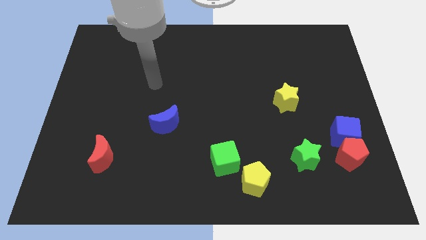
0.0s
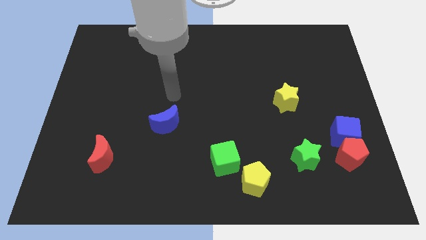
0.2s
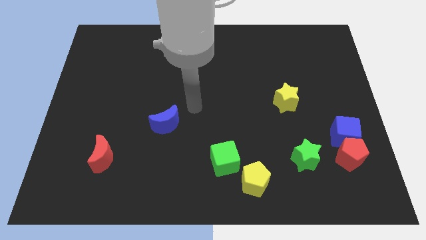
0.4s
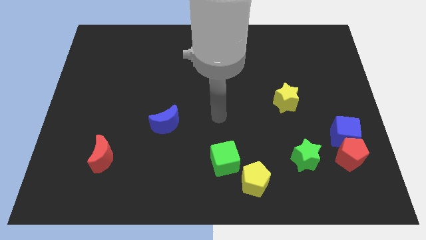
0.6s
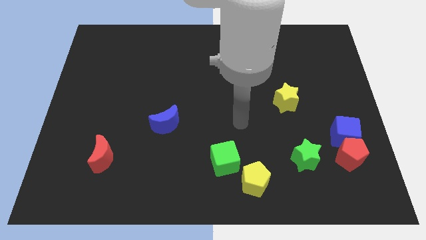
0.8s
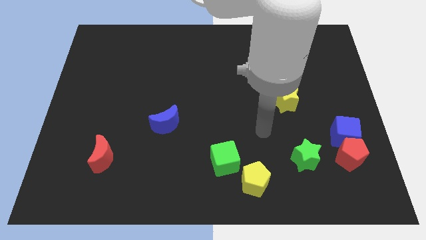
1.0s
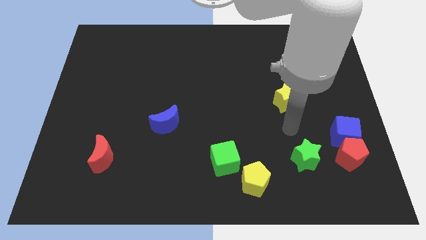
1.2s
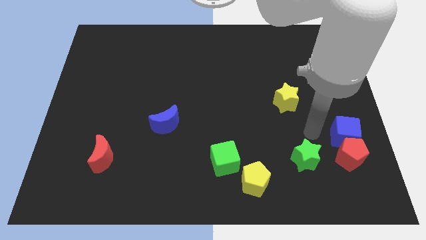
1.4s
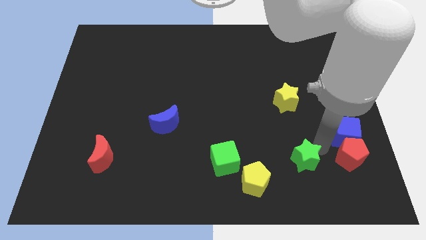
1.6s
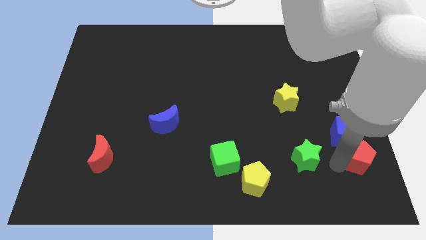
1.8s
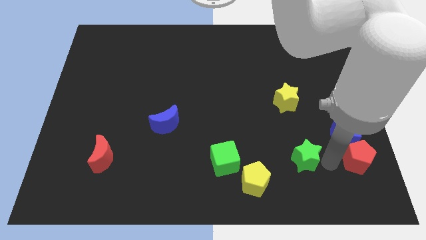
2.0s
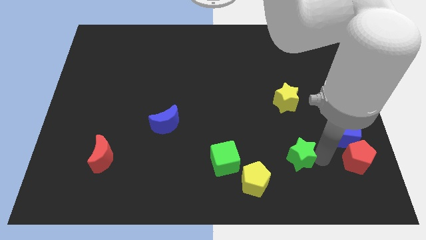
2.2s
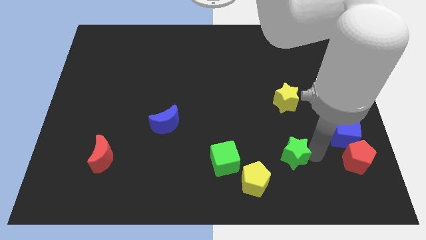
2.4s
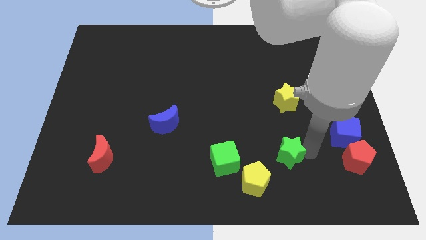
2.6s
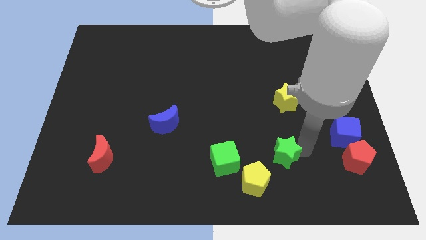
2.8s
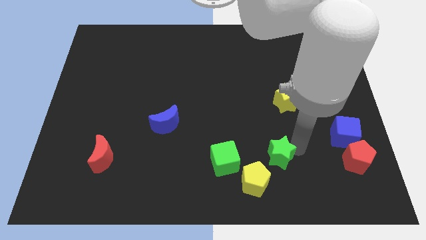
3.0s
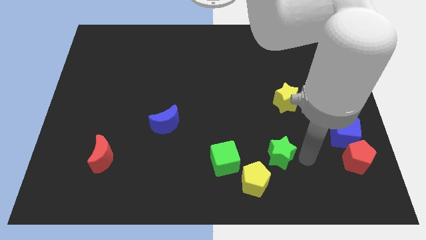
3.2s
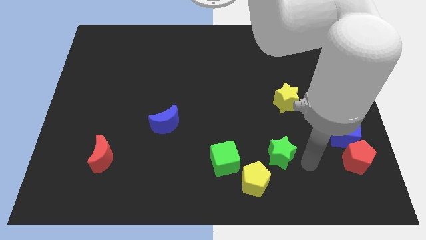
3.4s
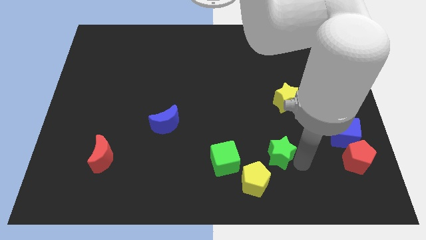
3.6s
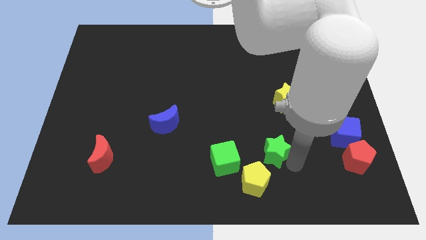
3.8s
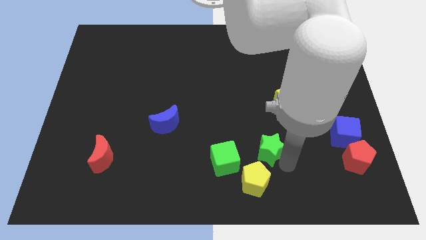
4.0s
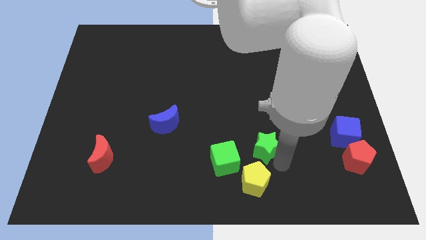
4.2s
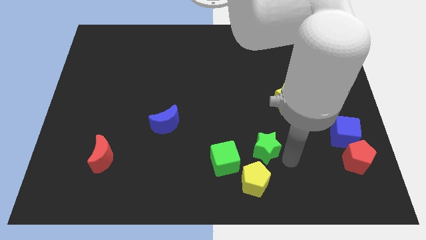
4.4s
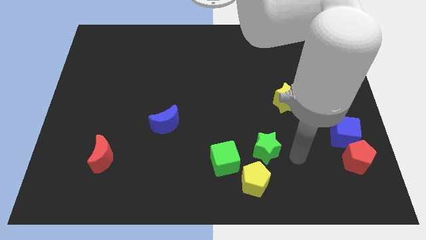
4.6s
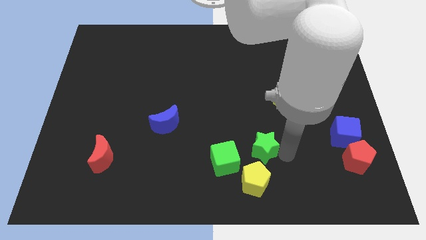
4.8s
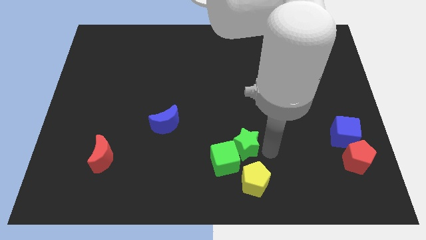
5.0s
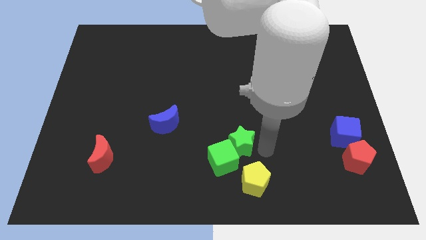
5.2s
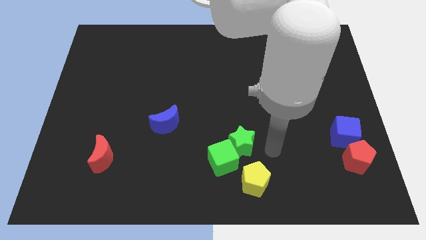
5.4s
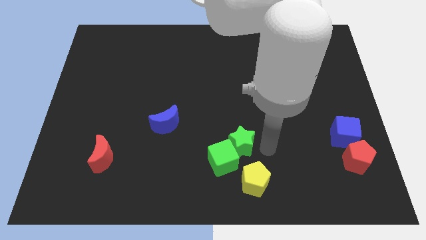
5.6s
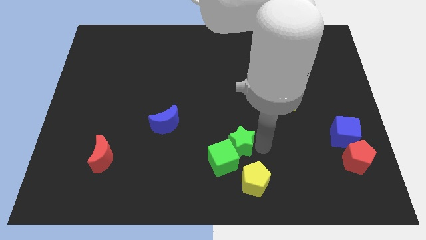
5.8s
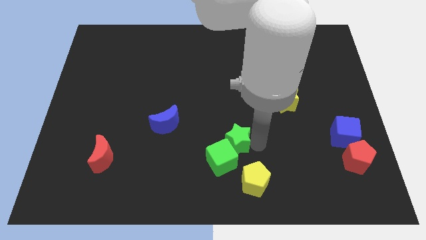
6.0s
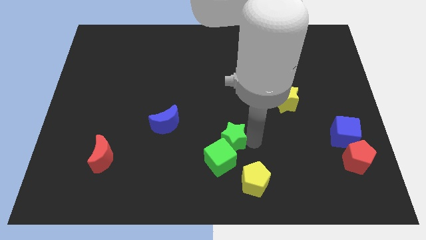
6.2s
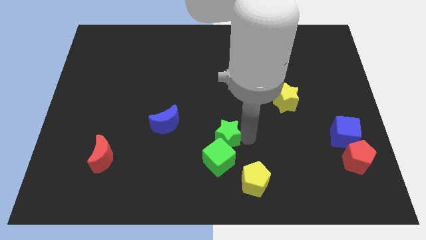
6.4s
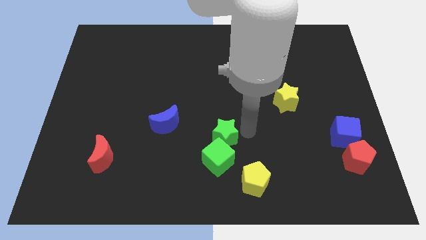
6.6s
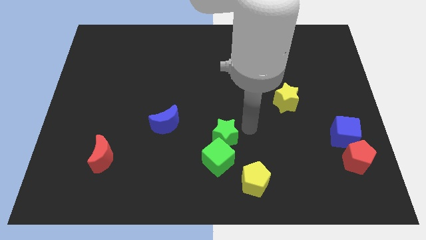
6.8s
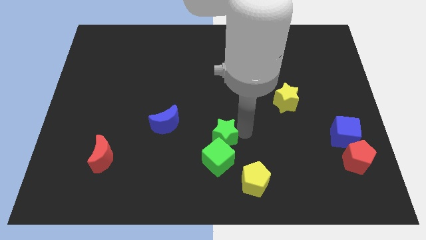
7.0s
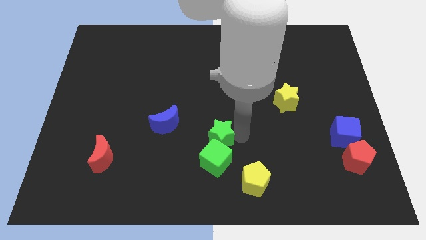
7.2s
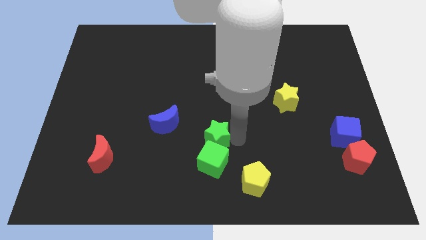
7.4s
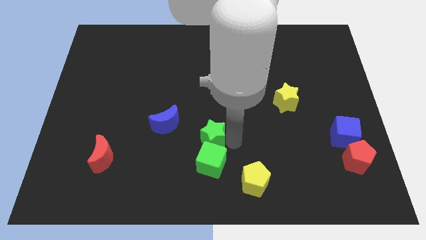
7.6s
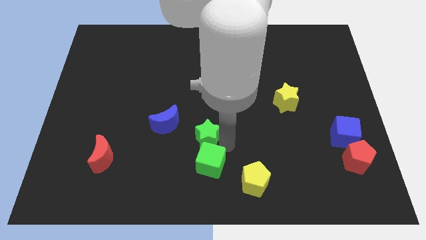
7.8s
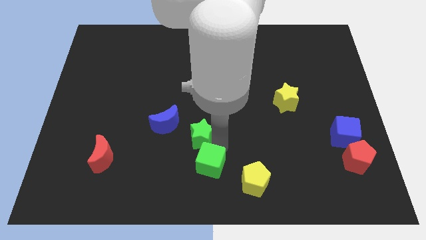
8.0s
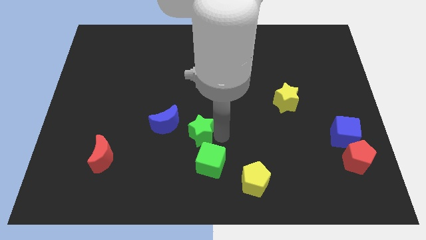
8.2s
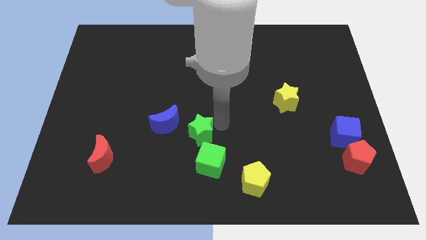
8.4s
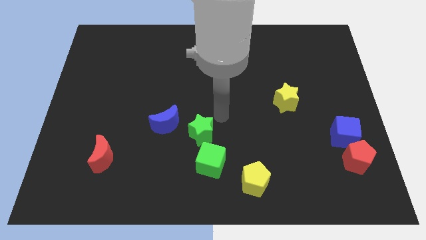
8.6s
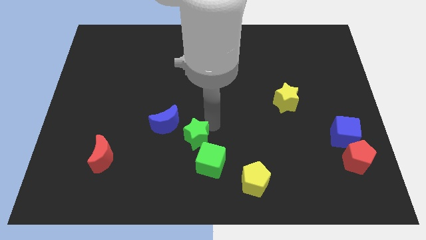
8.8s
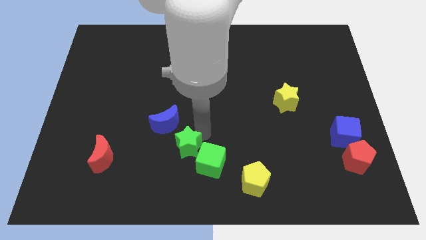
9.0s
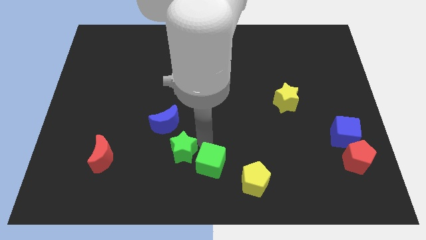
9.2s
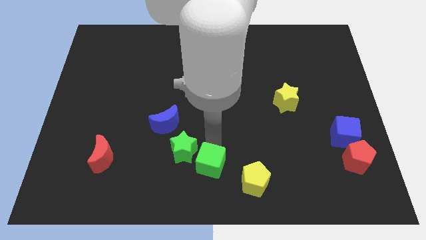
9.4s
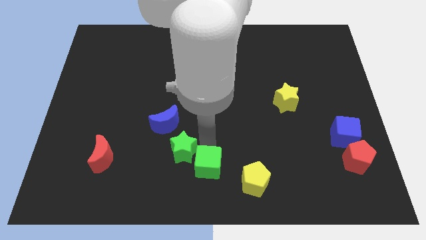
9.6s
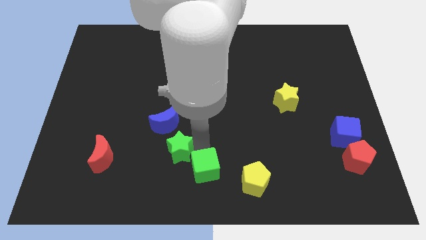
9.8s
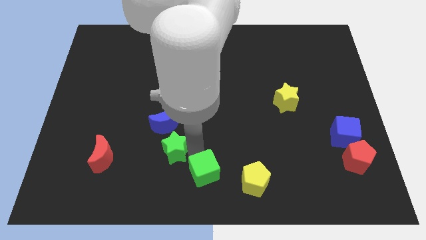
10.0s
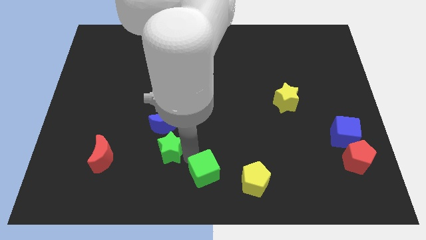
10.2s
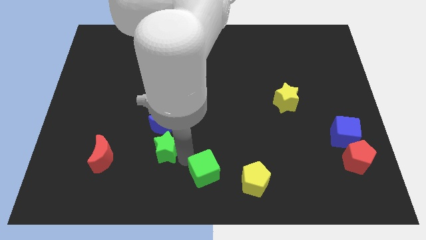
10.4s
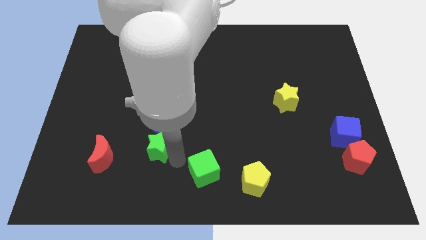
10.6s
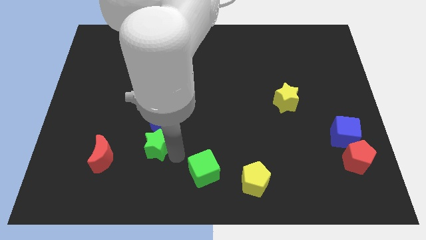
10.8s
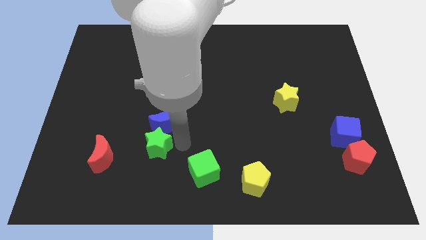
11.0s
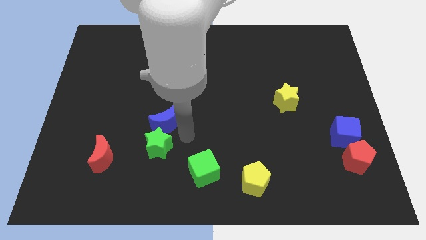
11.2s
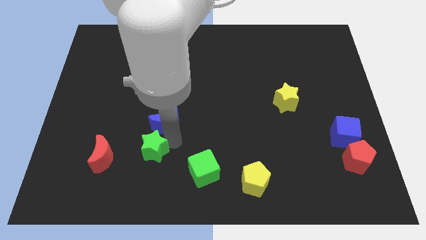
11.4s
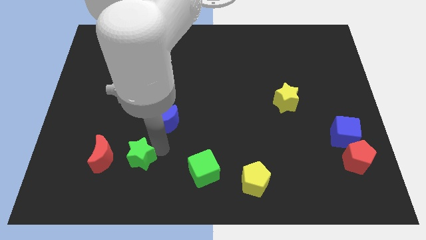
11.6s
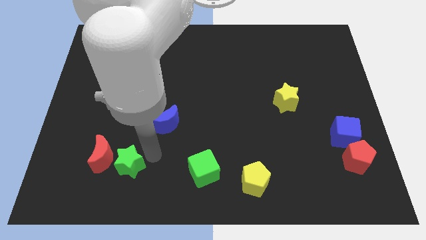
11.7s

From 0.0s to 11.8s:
push the green star close to the red moon

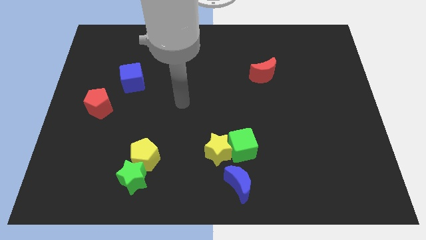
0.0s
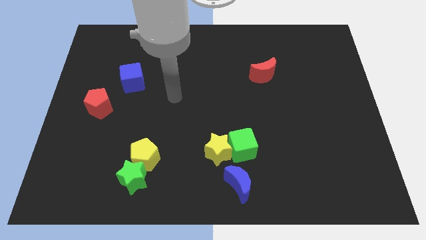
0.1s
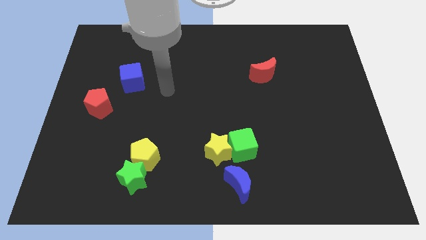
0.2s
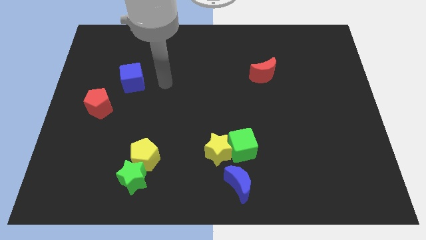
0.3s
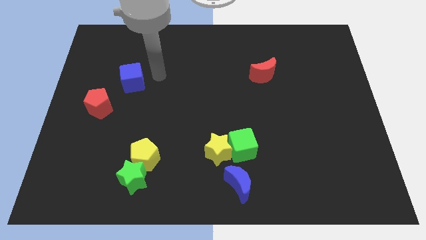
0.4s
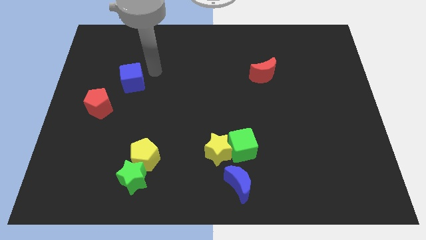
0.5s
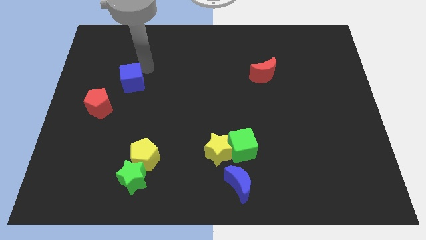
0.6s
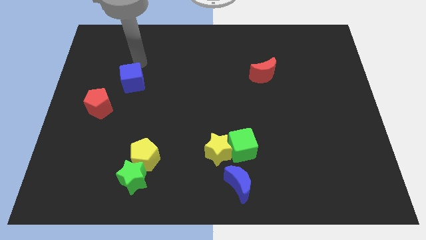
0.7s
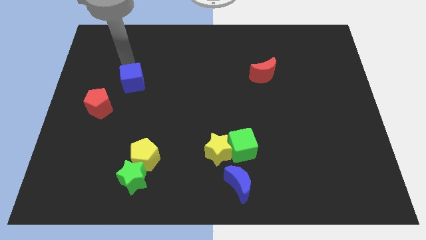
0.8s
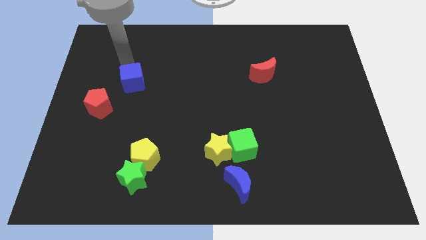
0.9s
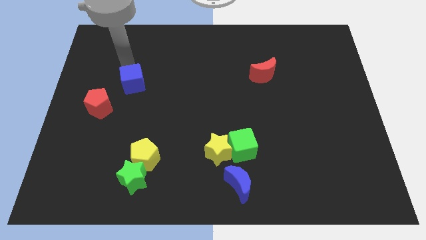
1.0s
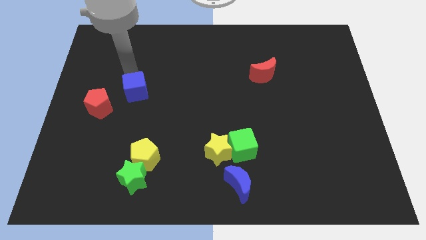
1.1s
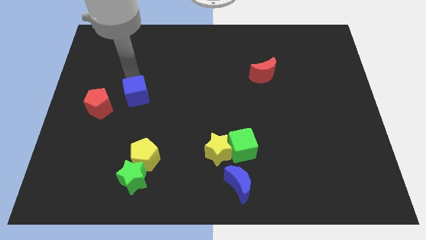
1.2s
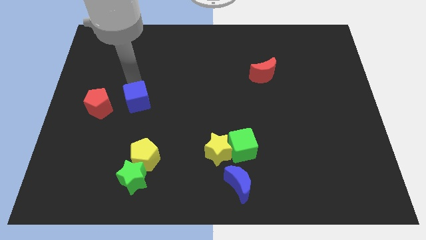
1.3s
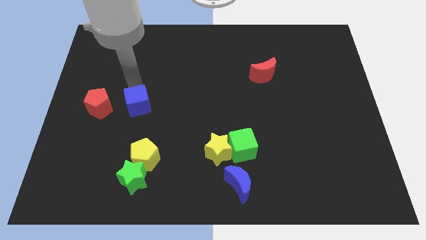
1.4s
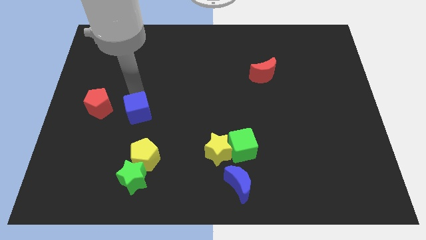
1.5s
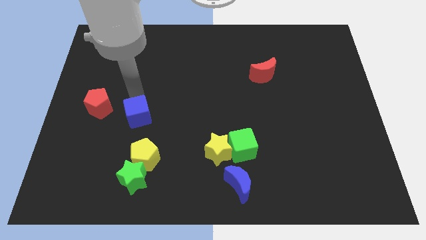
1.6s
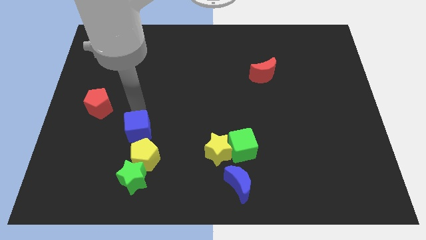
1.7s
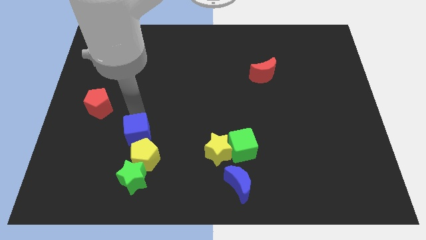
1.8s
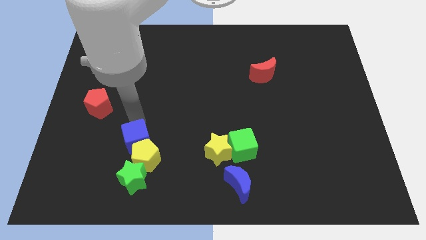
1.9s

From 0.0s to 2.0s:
put the blue cube to the yellow pentagon
